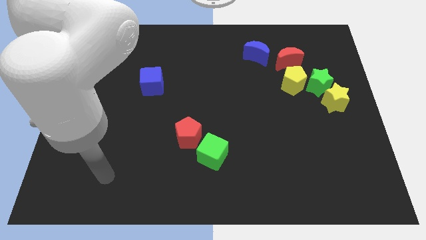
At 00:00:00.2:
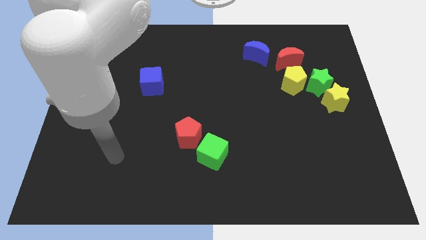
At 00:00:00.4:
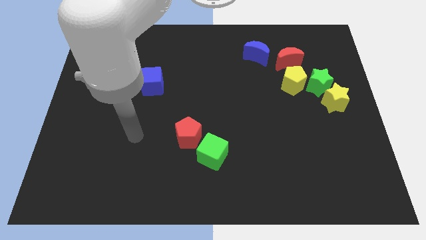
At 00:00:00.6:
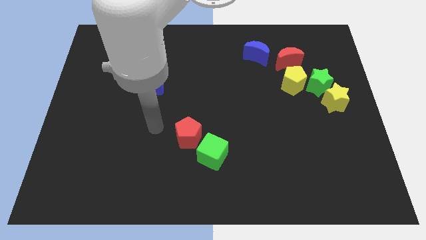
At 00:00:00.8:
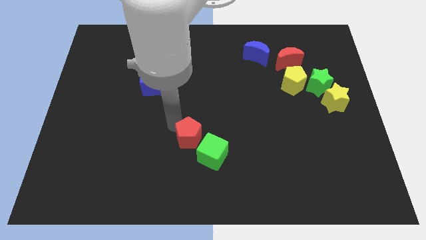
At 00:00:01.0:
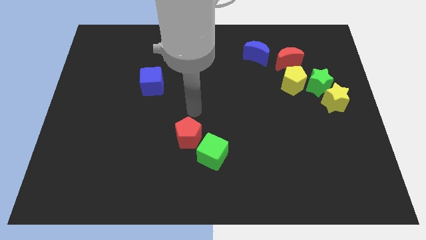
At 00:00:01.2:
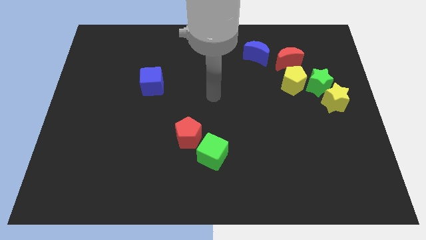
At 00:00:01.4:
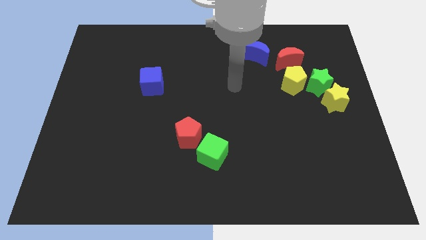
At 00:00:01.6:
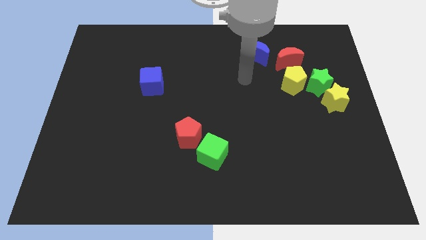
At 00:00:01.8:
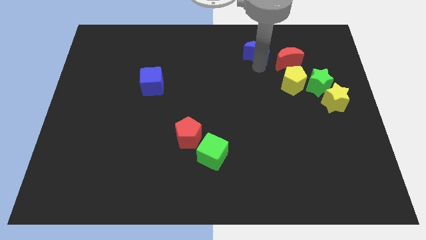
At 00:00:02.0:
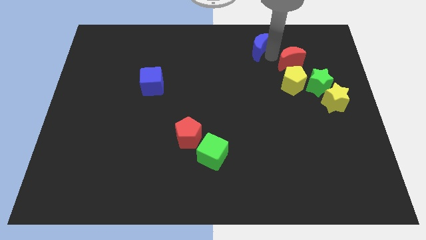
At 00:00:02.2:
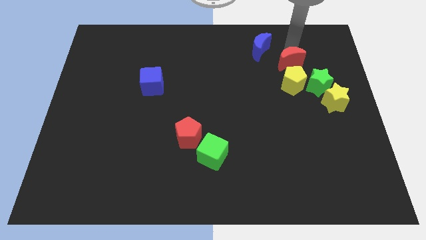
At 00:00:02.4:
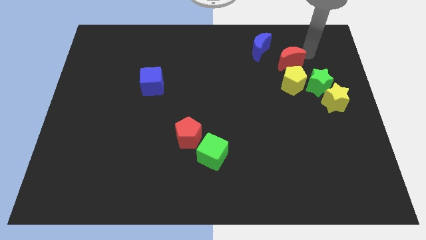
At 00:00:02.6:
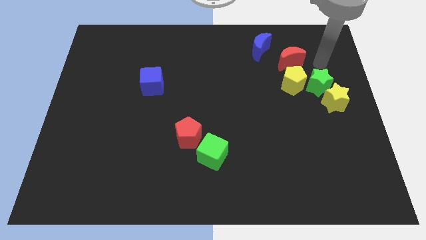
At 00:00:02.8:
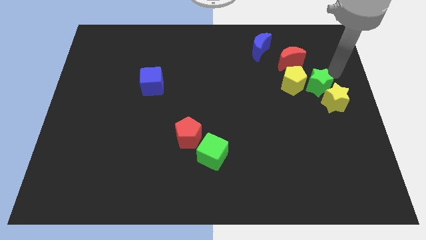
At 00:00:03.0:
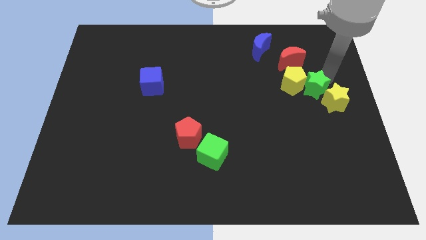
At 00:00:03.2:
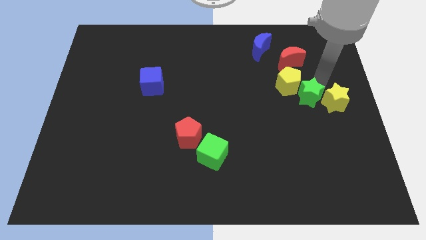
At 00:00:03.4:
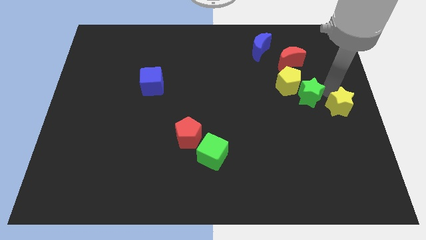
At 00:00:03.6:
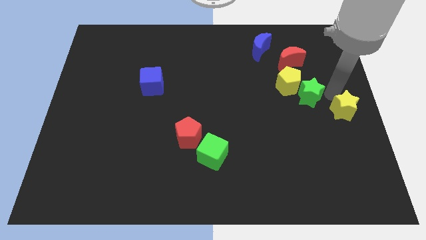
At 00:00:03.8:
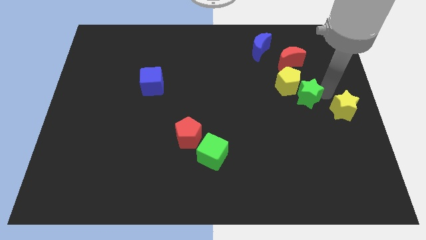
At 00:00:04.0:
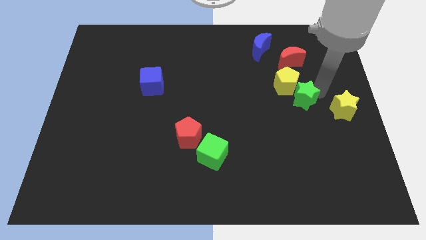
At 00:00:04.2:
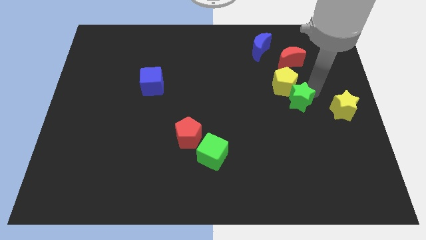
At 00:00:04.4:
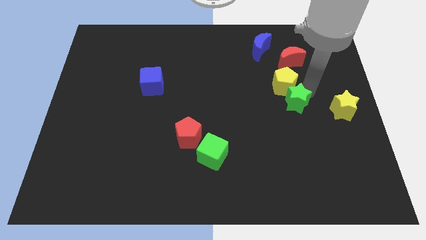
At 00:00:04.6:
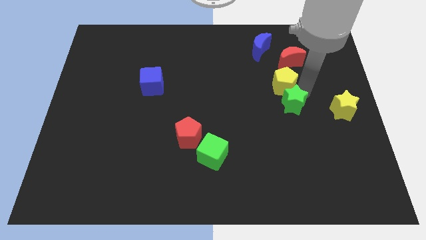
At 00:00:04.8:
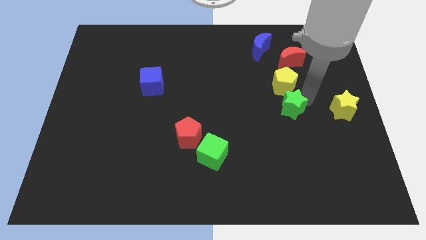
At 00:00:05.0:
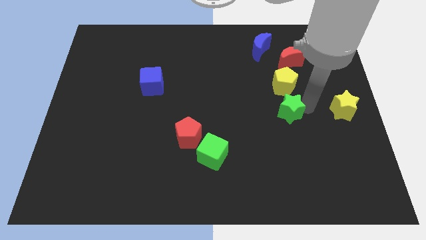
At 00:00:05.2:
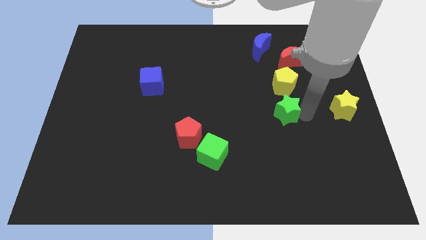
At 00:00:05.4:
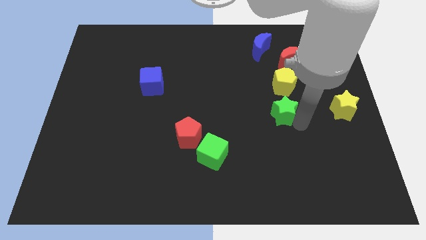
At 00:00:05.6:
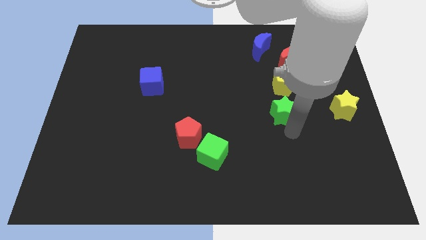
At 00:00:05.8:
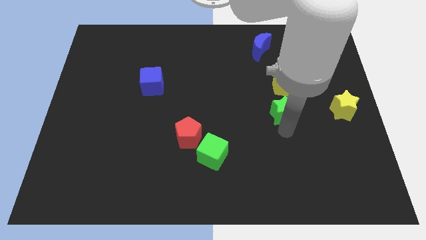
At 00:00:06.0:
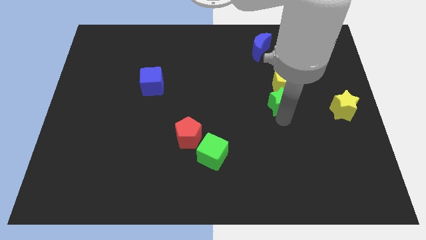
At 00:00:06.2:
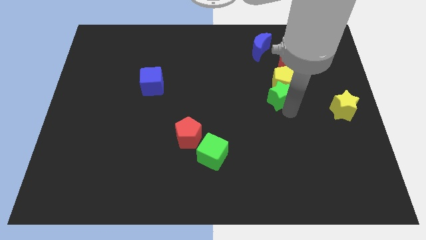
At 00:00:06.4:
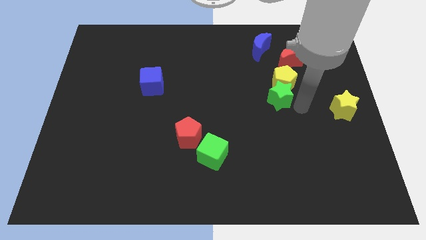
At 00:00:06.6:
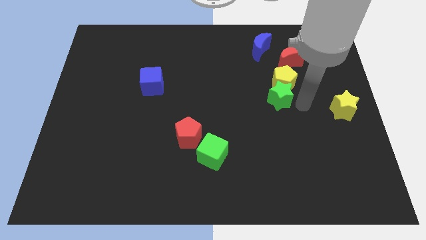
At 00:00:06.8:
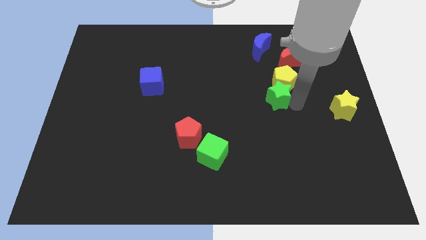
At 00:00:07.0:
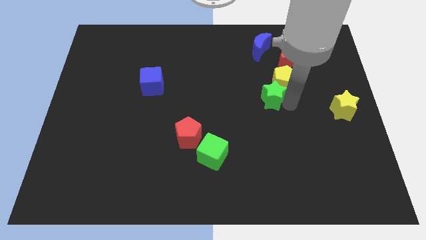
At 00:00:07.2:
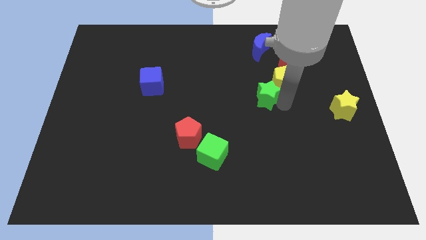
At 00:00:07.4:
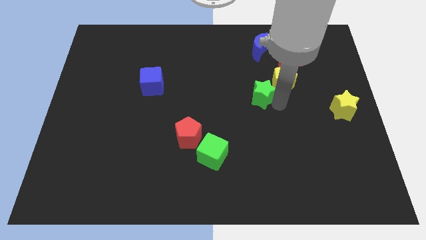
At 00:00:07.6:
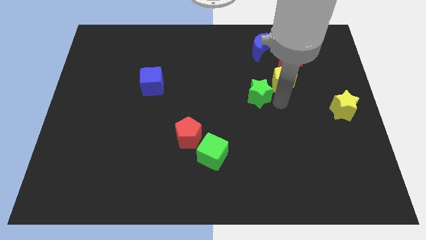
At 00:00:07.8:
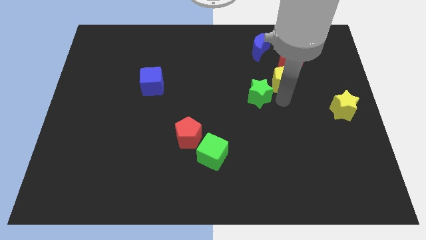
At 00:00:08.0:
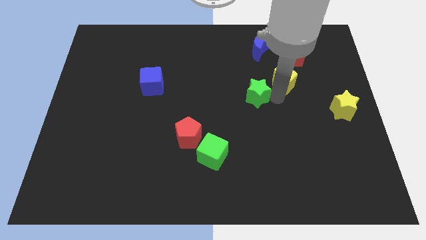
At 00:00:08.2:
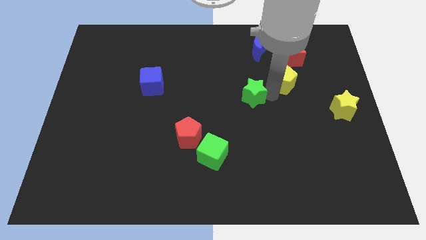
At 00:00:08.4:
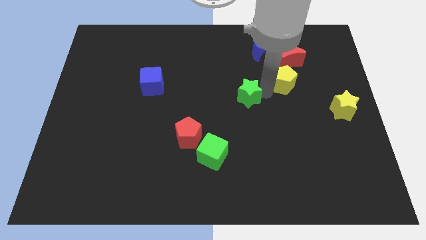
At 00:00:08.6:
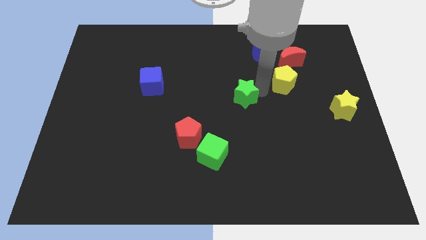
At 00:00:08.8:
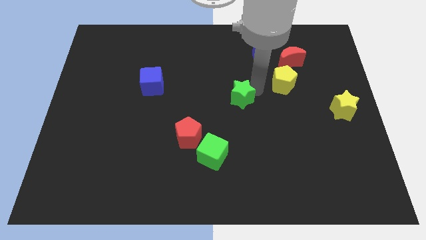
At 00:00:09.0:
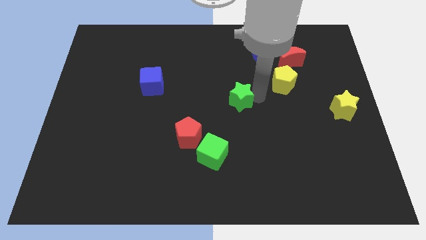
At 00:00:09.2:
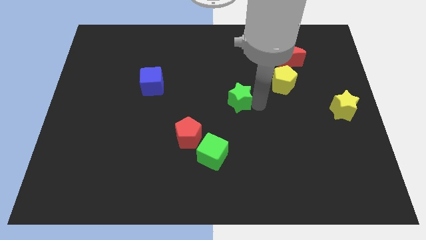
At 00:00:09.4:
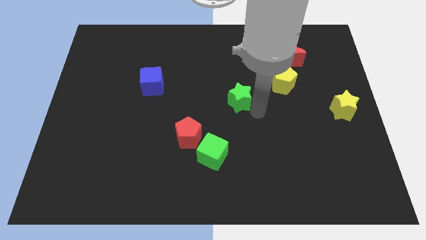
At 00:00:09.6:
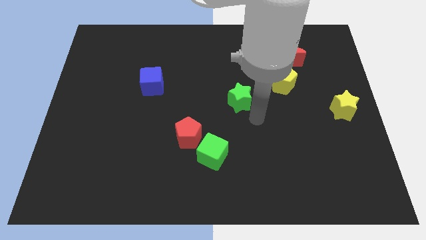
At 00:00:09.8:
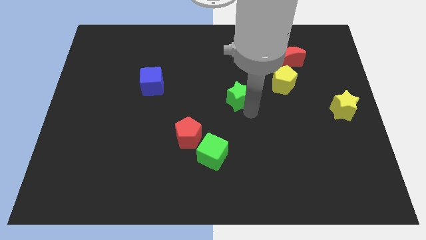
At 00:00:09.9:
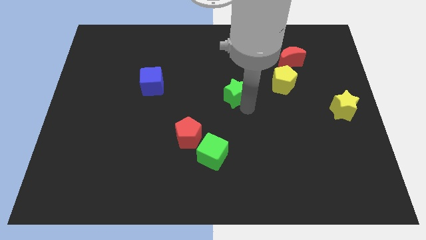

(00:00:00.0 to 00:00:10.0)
move the green star left

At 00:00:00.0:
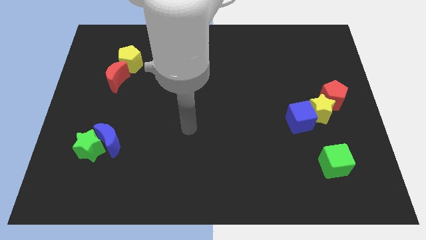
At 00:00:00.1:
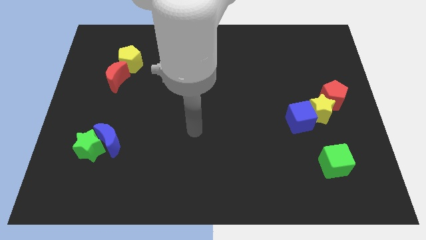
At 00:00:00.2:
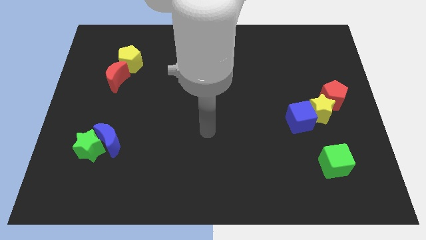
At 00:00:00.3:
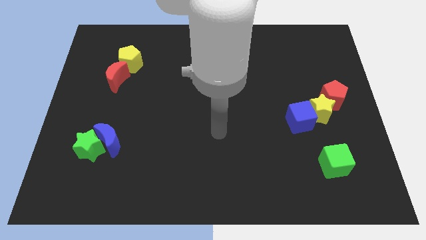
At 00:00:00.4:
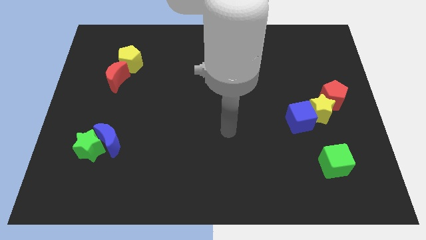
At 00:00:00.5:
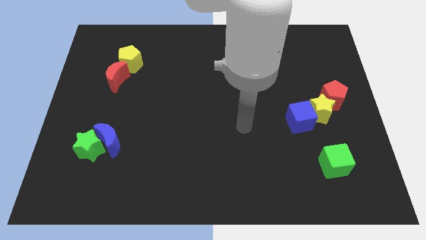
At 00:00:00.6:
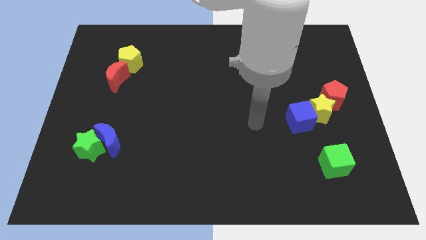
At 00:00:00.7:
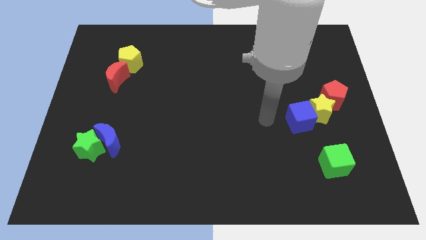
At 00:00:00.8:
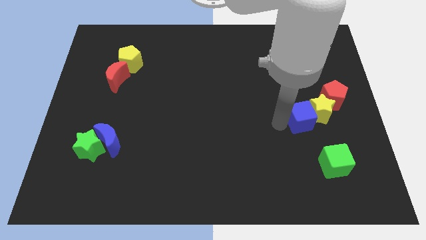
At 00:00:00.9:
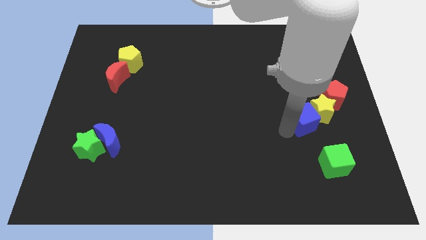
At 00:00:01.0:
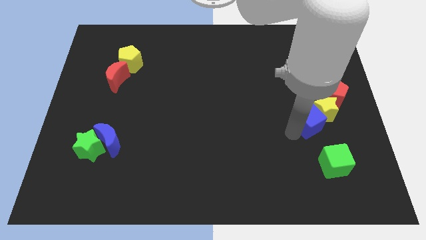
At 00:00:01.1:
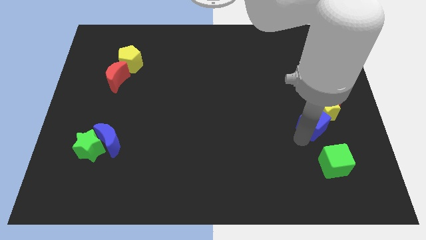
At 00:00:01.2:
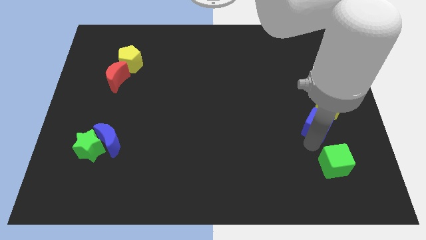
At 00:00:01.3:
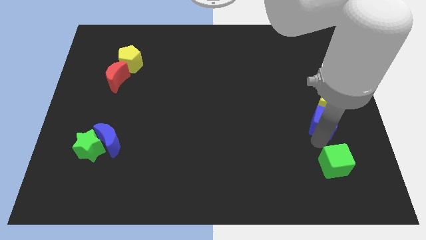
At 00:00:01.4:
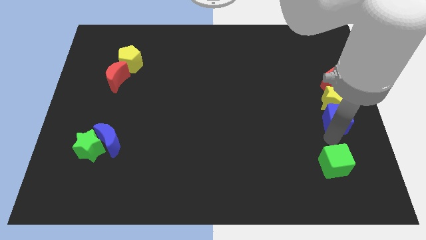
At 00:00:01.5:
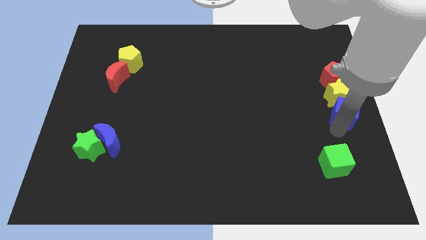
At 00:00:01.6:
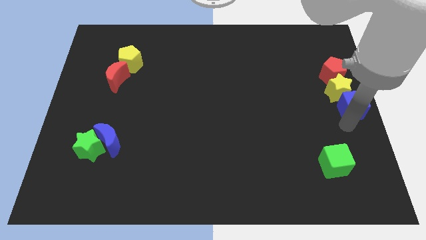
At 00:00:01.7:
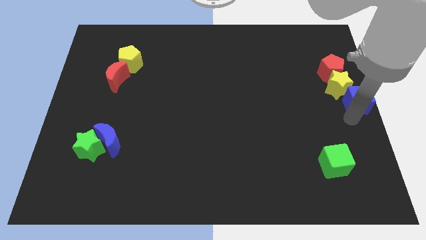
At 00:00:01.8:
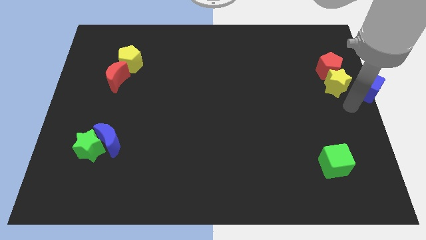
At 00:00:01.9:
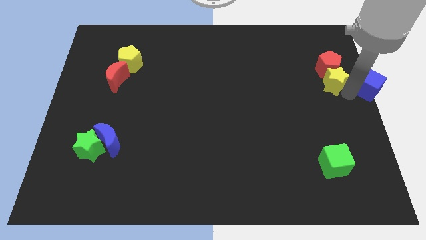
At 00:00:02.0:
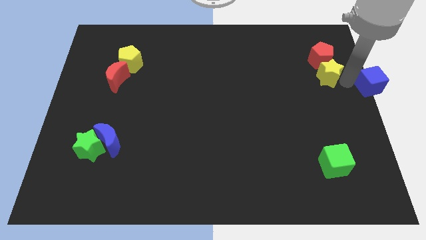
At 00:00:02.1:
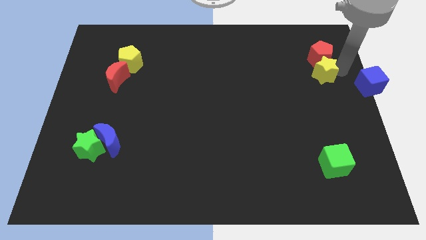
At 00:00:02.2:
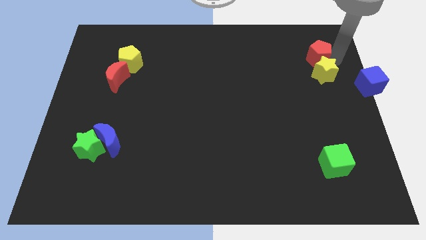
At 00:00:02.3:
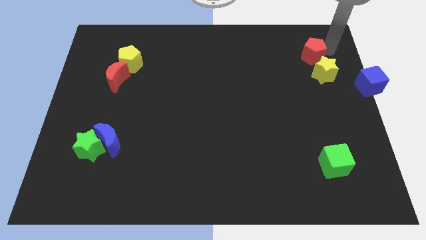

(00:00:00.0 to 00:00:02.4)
push the red pentagon a bit upwards and to the left diagonally

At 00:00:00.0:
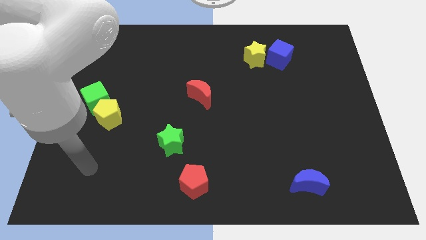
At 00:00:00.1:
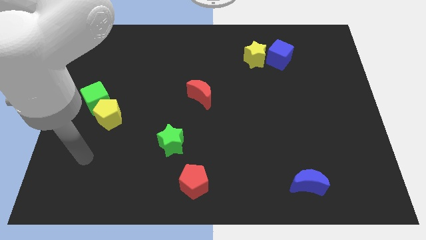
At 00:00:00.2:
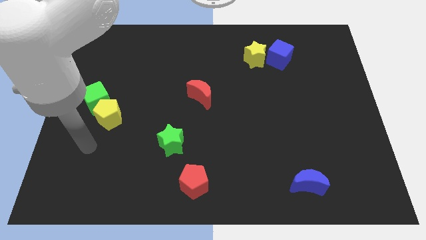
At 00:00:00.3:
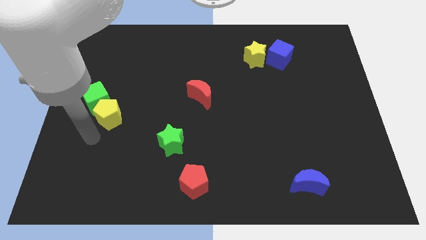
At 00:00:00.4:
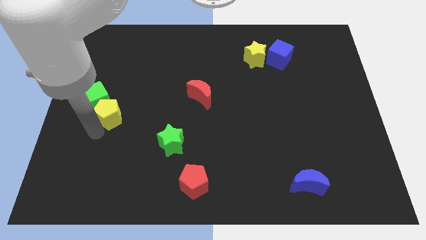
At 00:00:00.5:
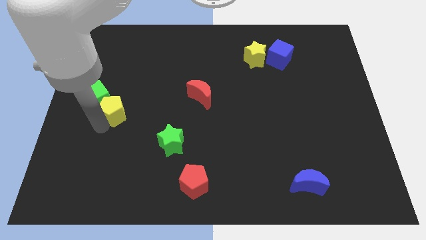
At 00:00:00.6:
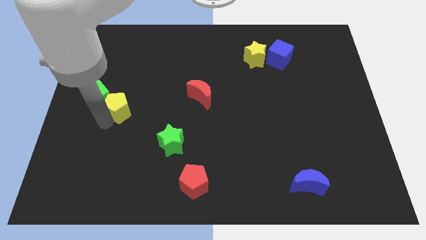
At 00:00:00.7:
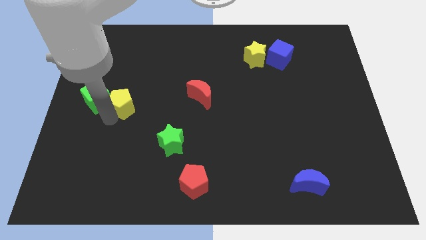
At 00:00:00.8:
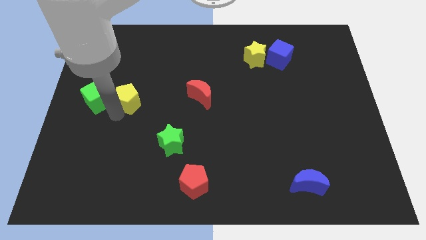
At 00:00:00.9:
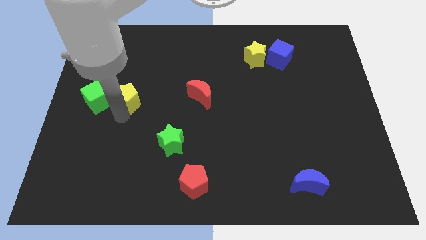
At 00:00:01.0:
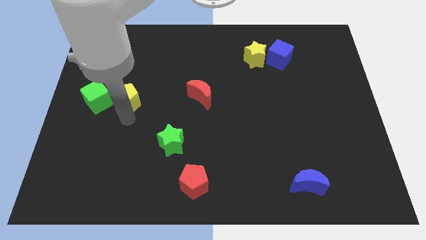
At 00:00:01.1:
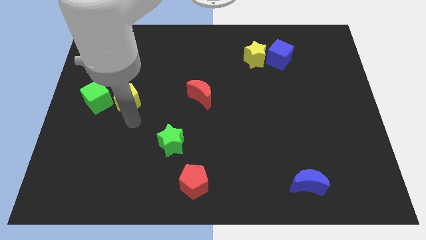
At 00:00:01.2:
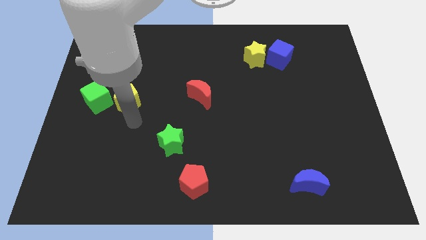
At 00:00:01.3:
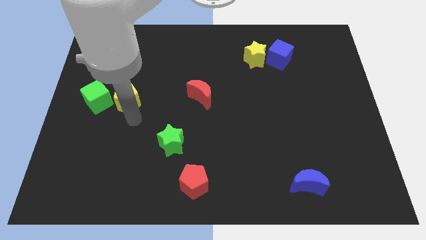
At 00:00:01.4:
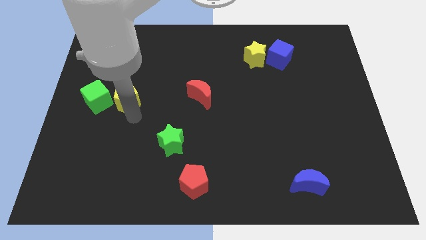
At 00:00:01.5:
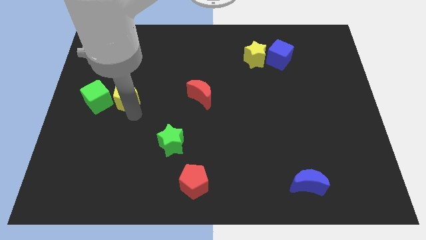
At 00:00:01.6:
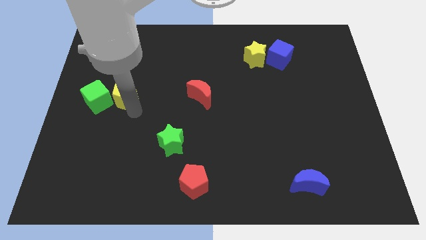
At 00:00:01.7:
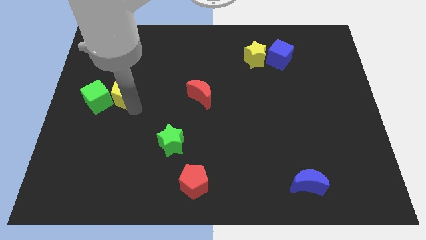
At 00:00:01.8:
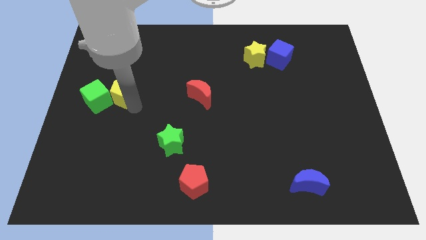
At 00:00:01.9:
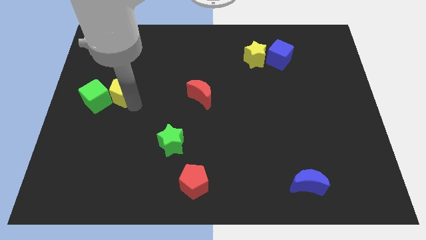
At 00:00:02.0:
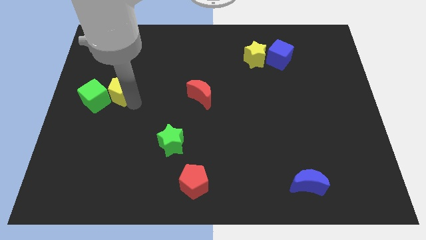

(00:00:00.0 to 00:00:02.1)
push the yellow pentagon upwards slightly
